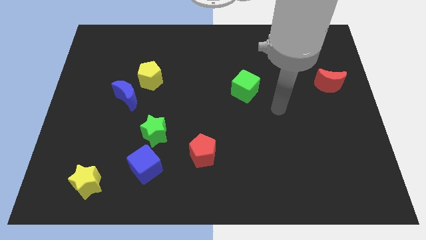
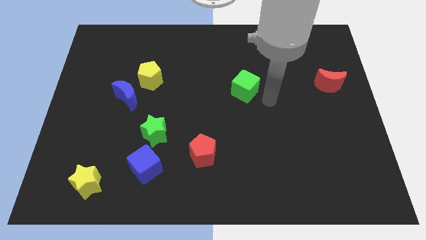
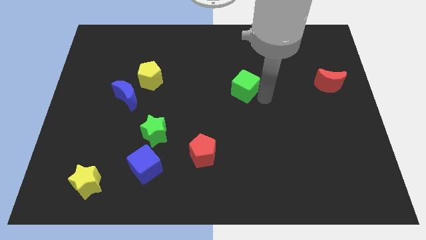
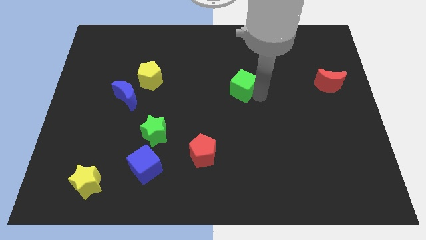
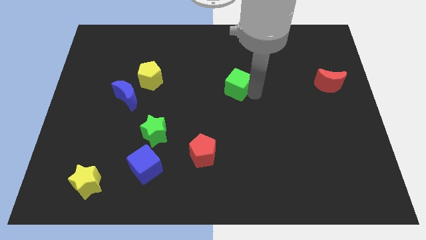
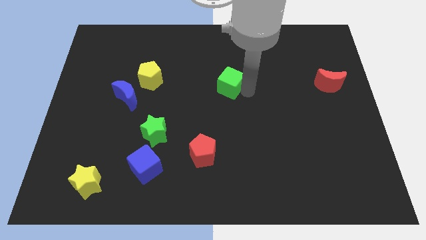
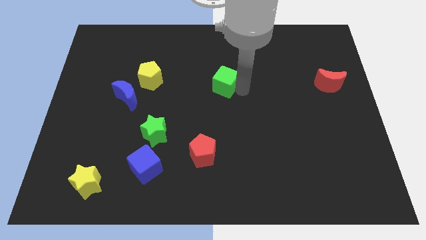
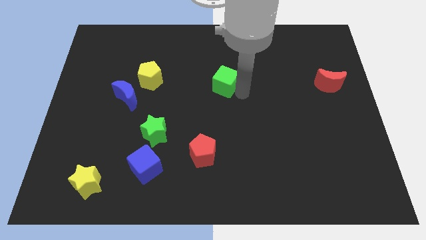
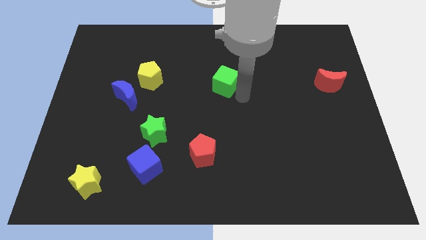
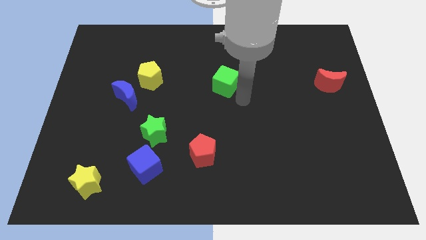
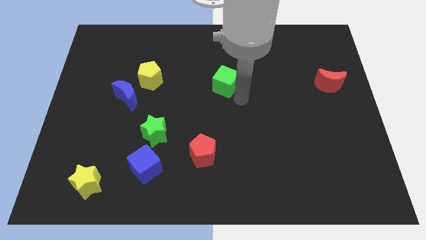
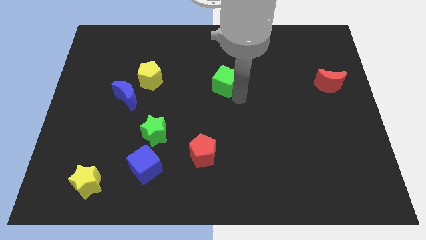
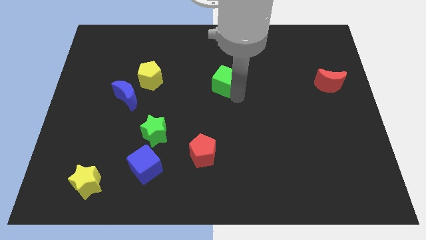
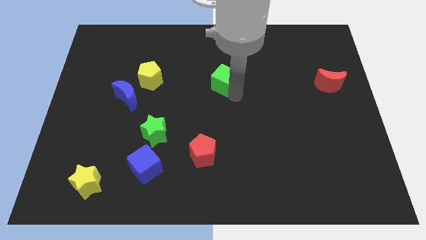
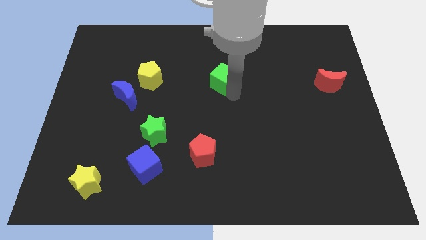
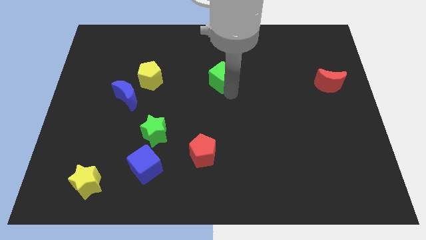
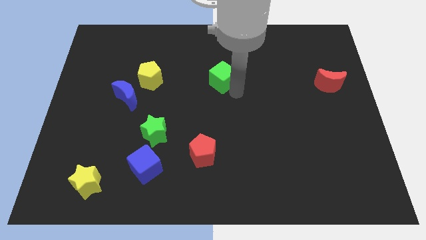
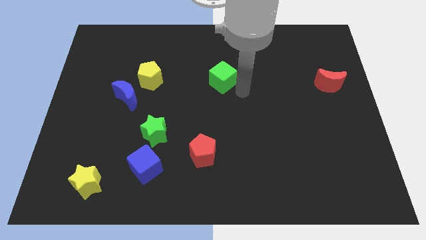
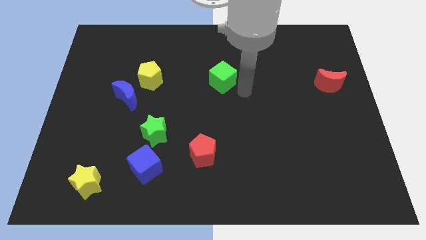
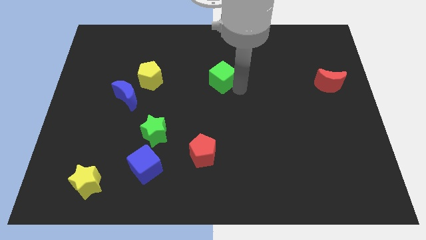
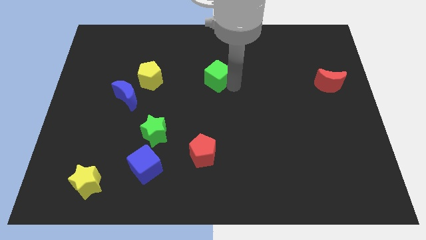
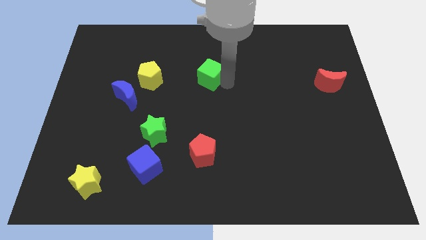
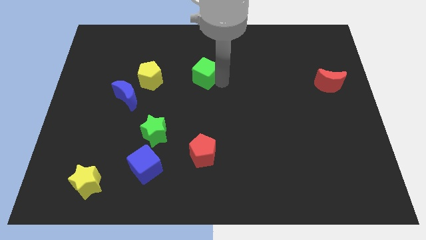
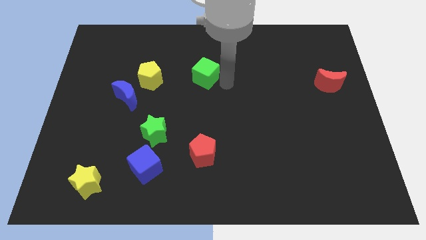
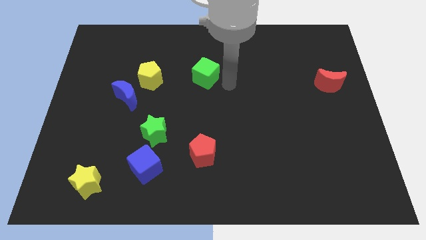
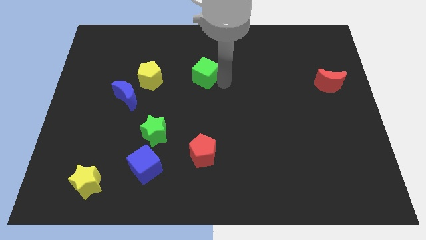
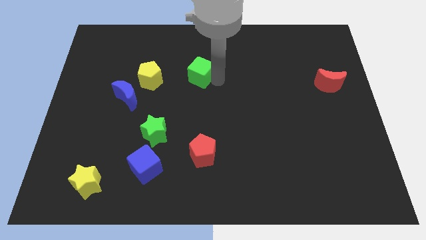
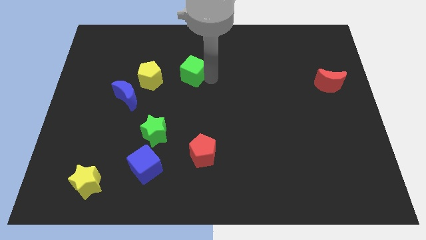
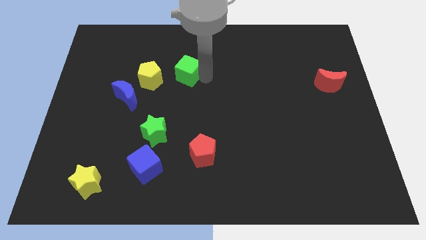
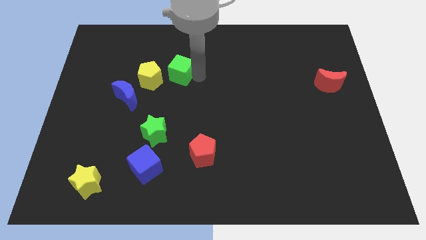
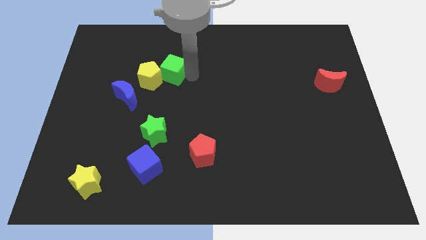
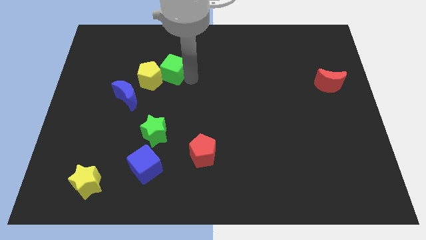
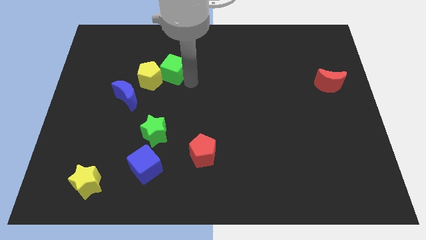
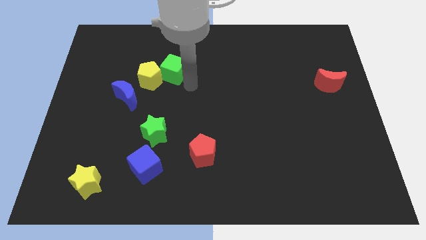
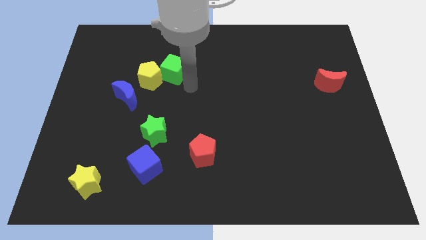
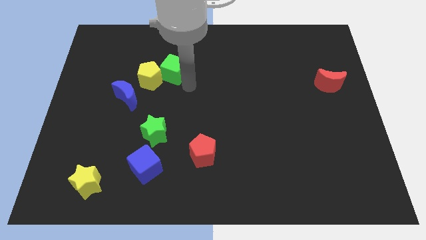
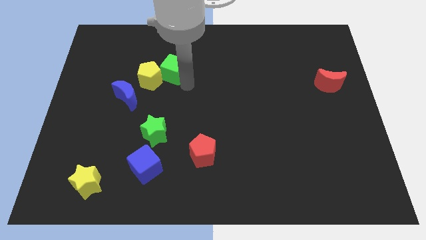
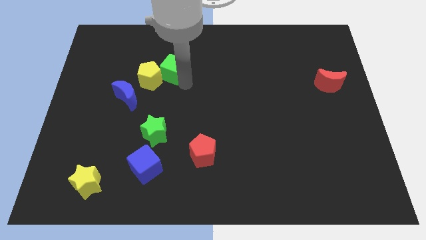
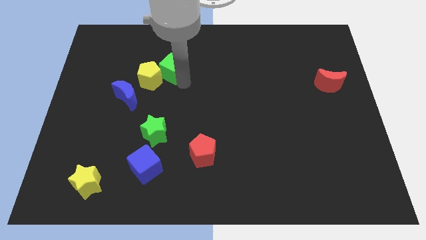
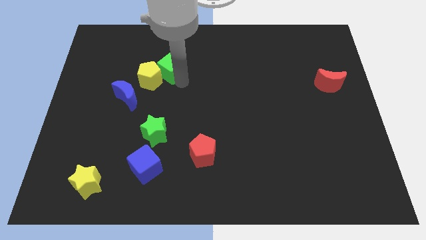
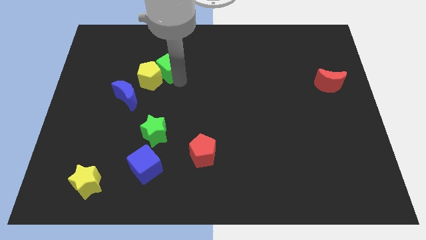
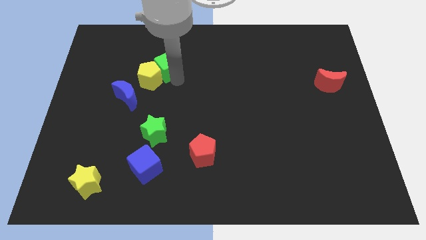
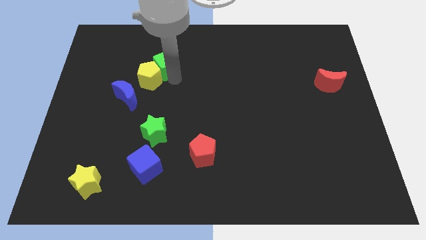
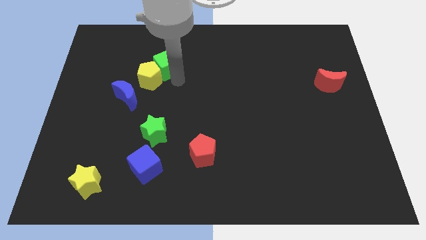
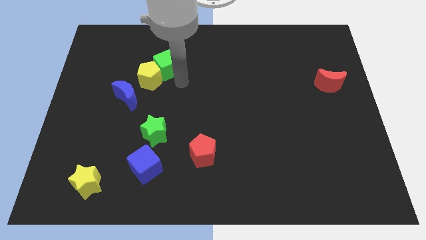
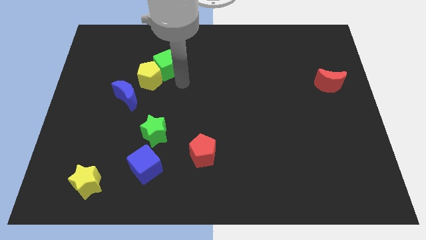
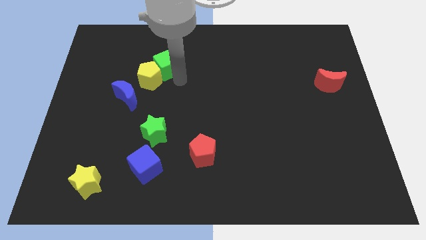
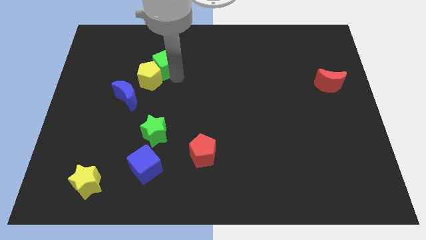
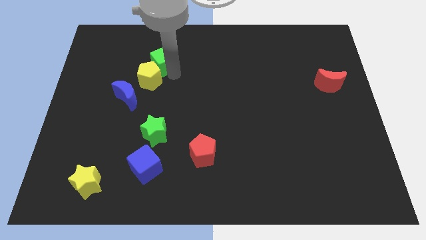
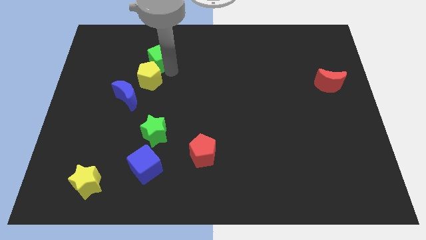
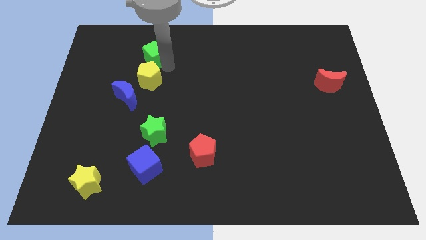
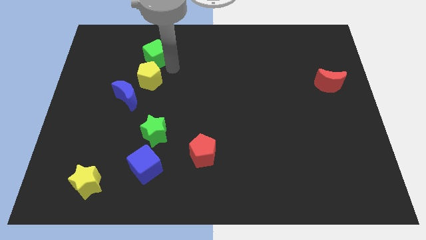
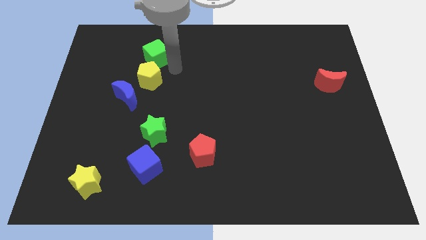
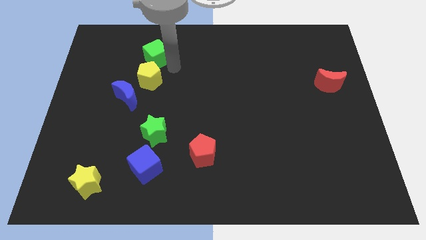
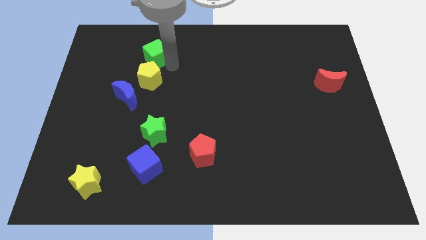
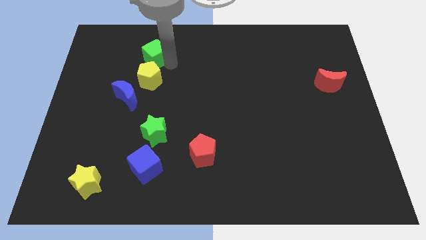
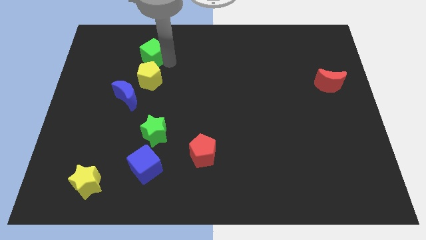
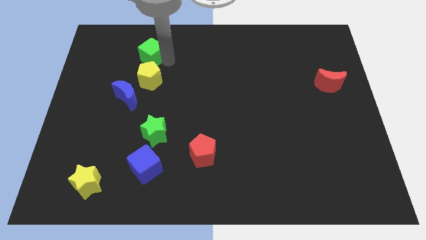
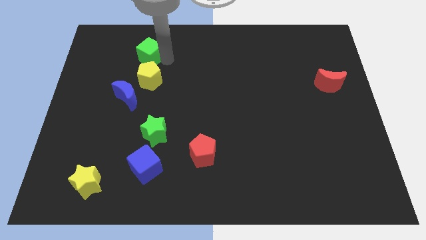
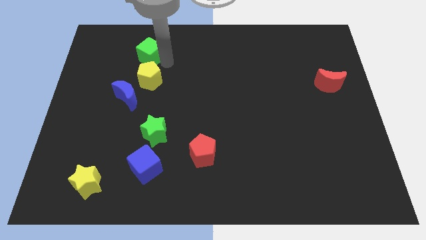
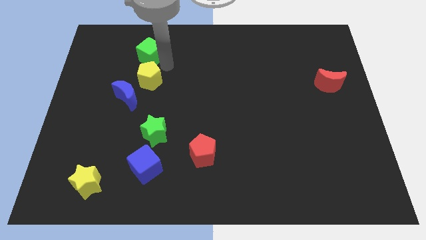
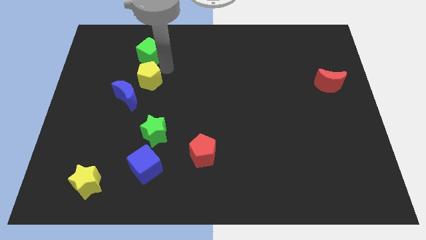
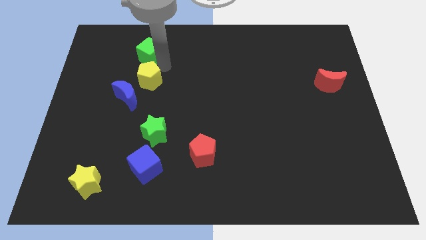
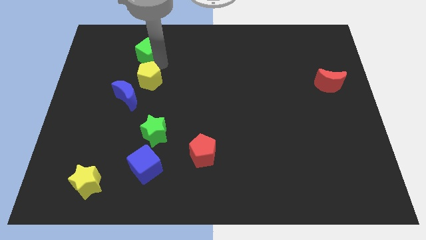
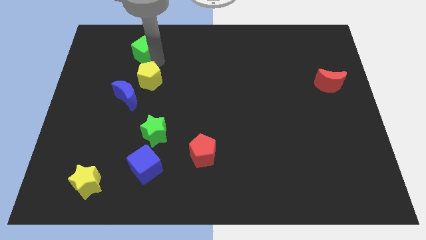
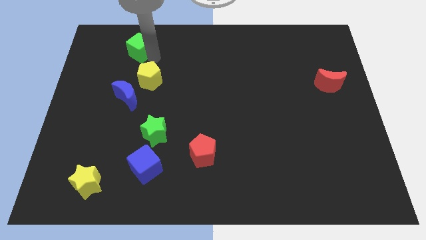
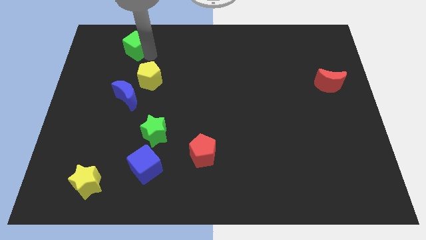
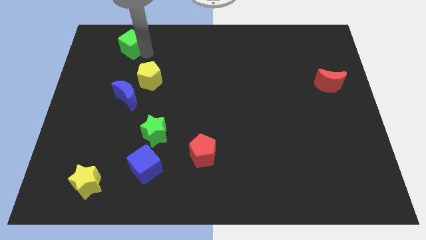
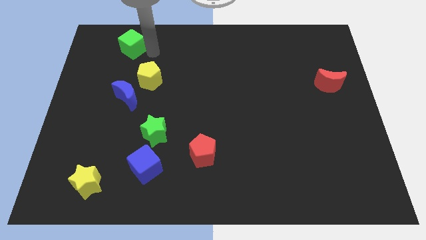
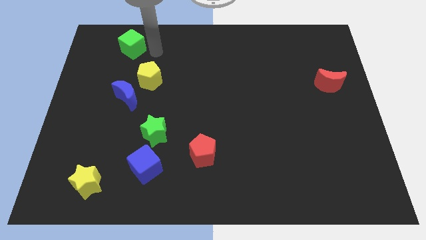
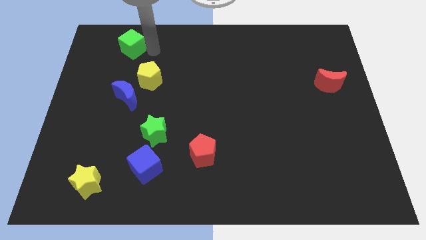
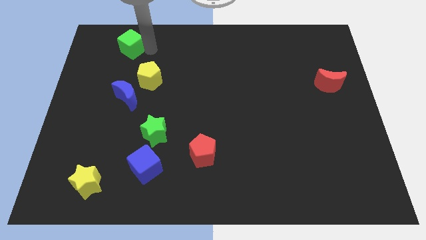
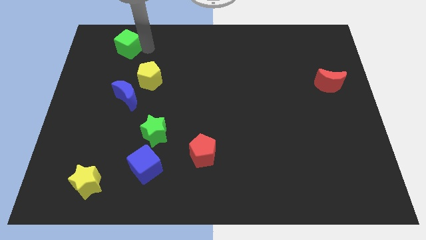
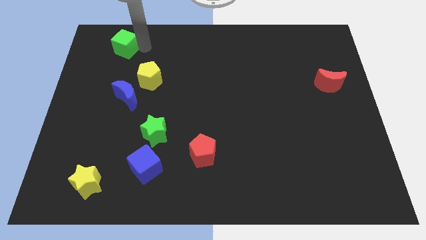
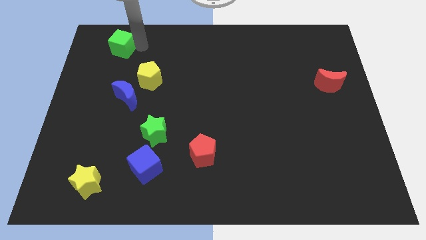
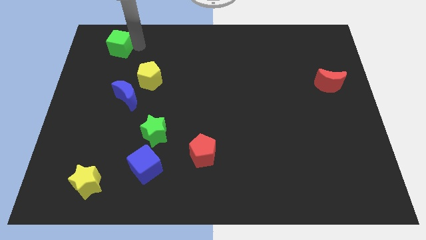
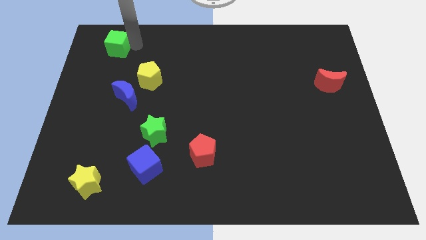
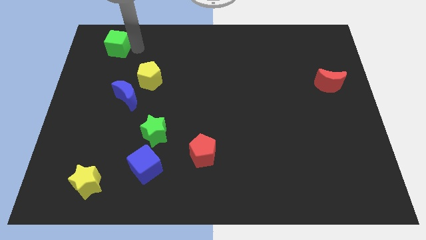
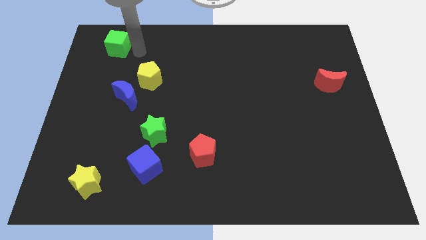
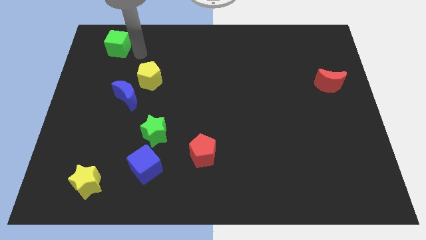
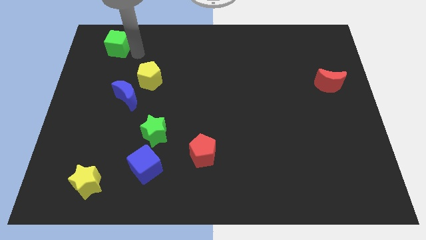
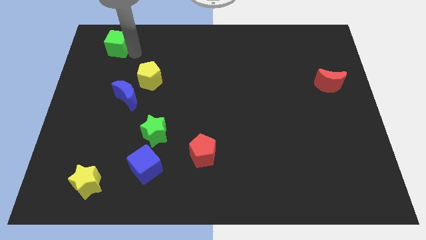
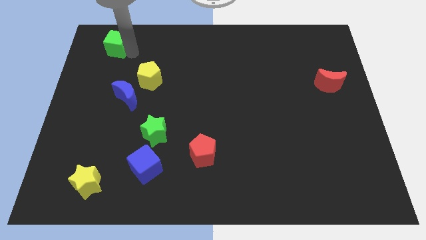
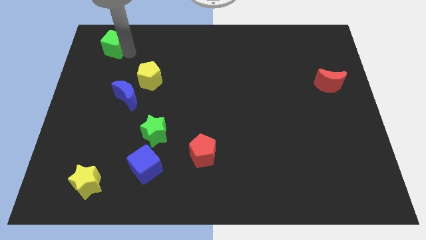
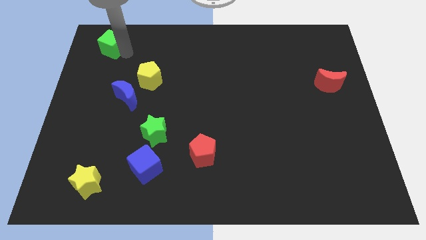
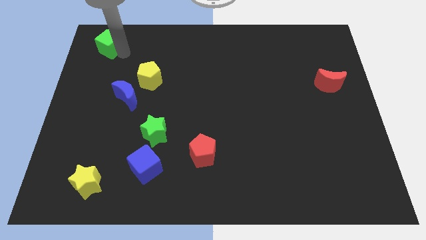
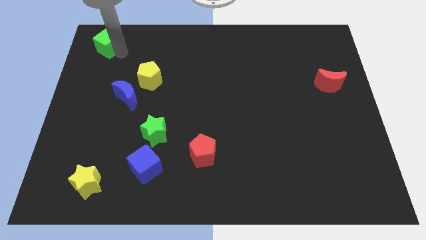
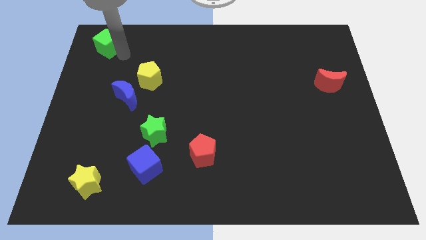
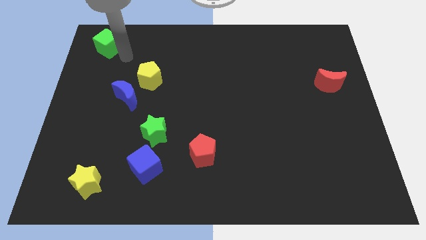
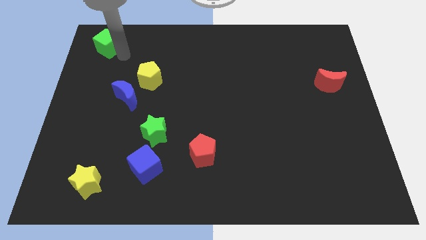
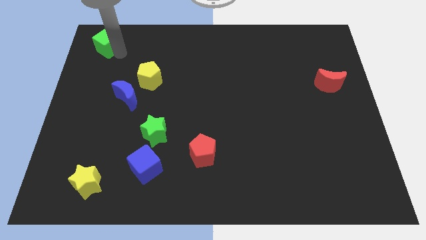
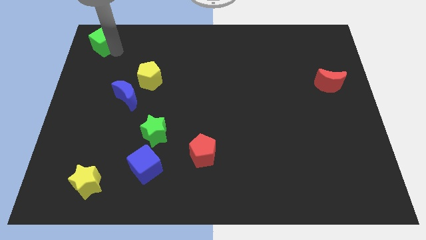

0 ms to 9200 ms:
put the green cube to the upper left corner
